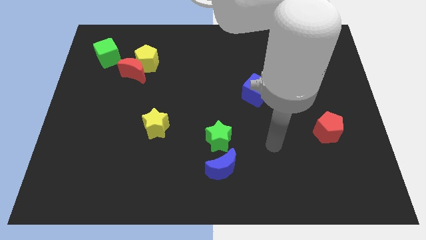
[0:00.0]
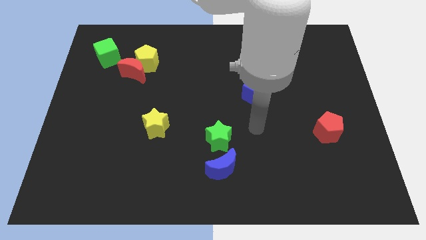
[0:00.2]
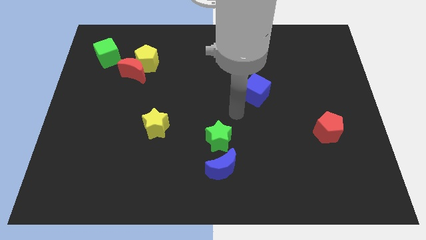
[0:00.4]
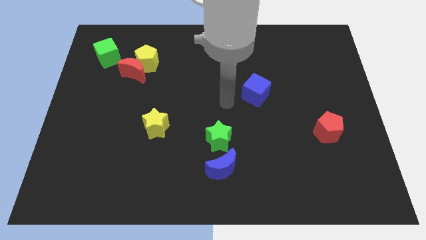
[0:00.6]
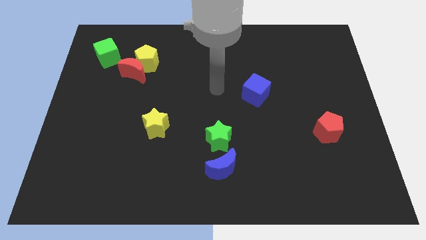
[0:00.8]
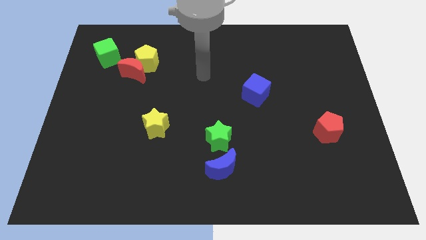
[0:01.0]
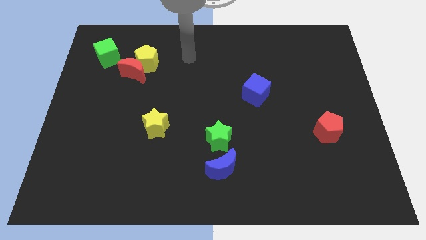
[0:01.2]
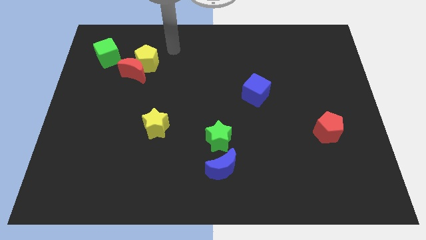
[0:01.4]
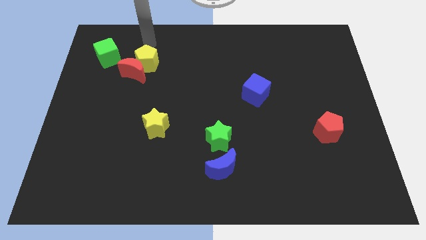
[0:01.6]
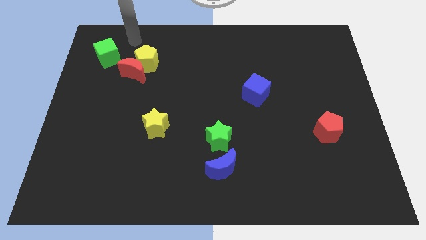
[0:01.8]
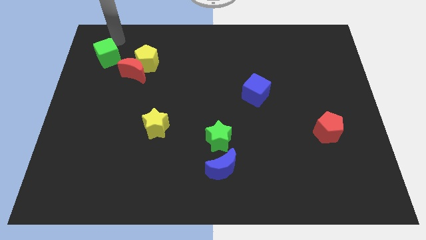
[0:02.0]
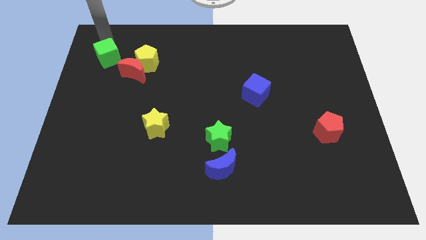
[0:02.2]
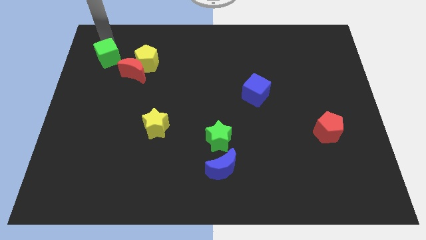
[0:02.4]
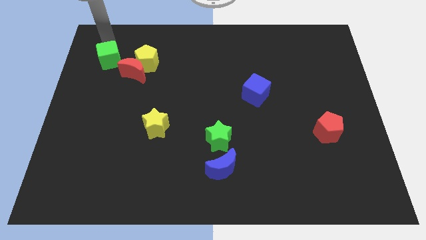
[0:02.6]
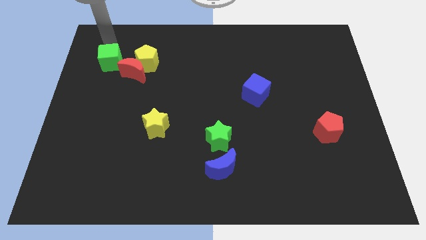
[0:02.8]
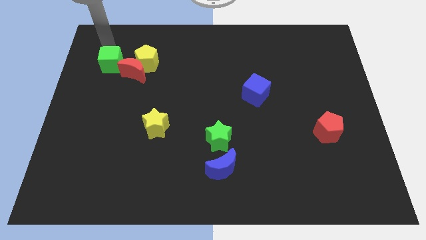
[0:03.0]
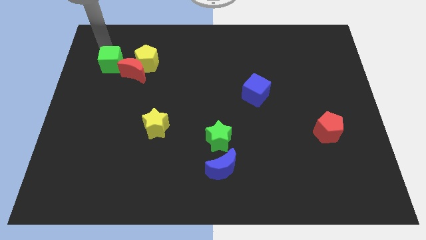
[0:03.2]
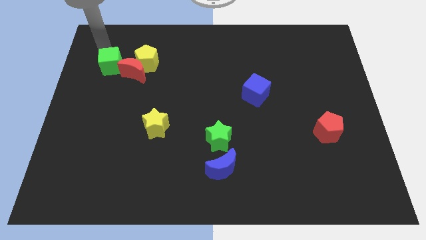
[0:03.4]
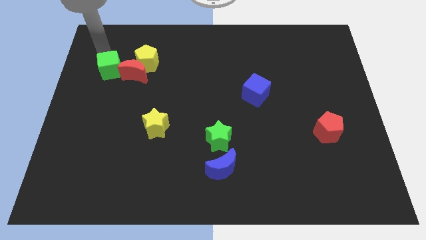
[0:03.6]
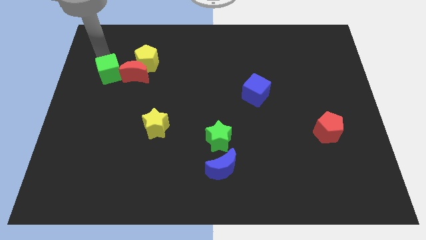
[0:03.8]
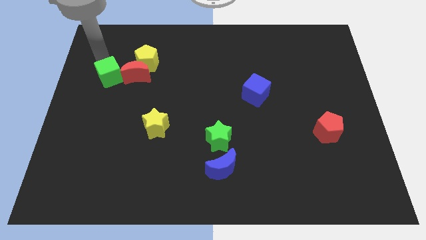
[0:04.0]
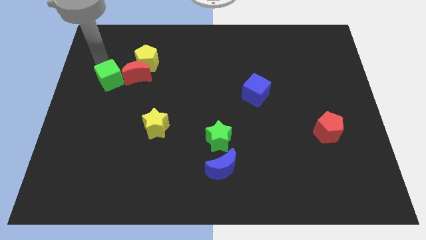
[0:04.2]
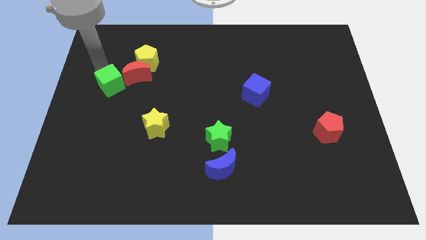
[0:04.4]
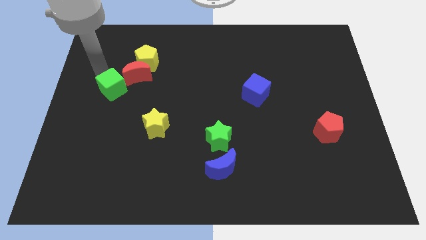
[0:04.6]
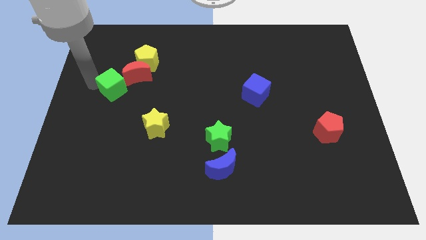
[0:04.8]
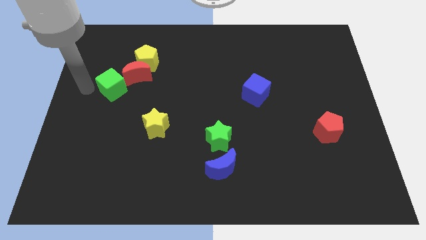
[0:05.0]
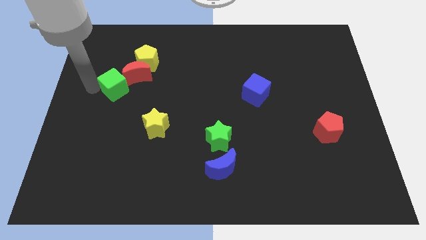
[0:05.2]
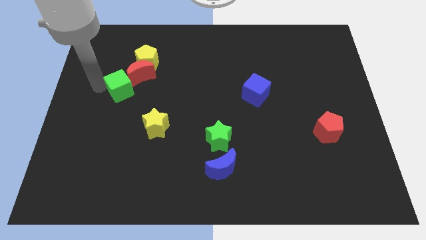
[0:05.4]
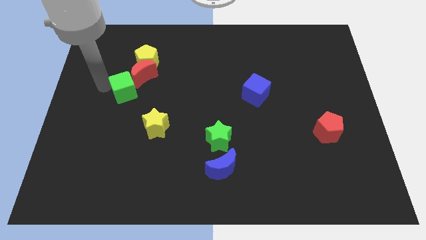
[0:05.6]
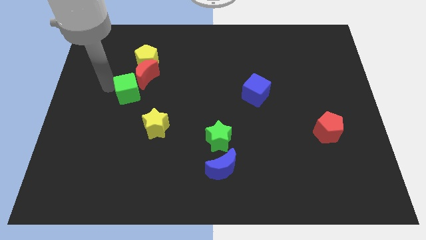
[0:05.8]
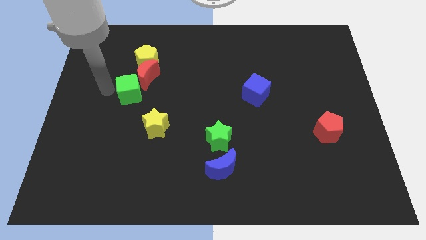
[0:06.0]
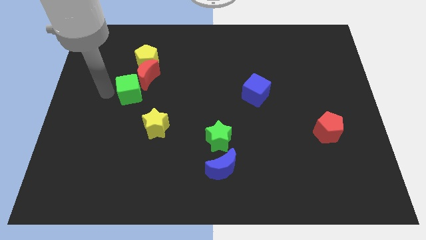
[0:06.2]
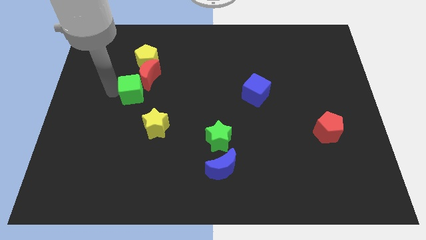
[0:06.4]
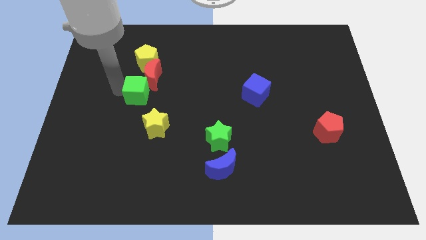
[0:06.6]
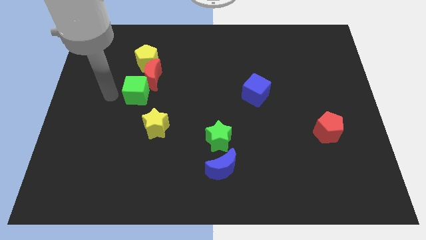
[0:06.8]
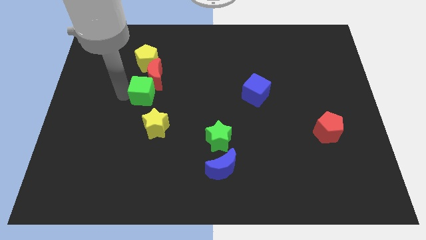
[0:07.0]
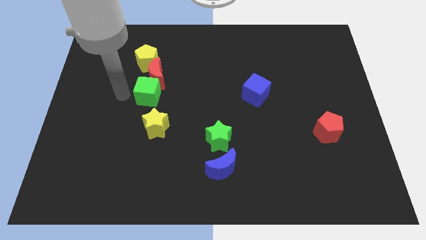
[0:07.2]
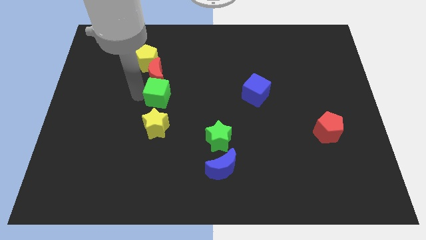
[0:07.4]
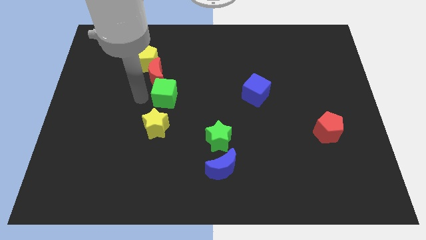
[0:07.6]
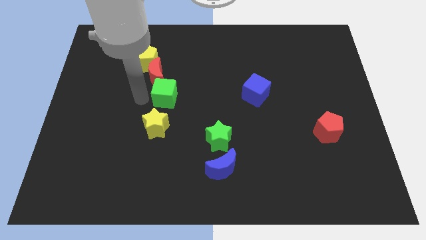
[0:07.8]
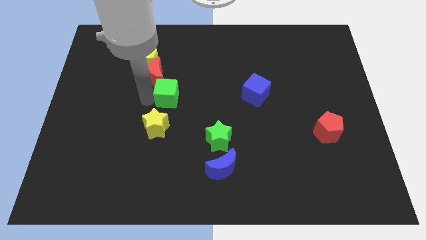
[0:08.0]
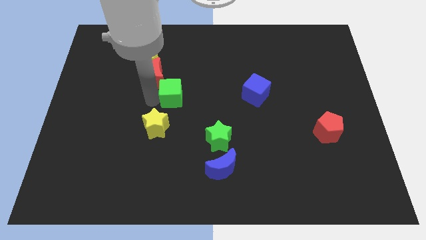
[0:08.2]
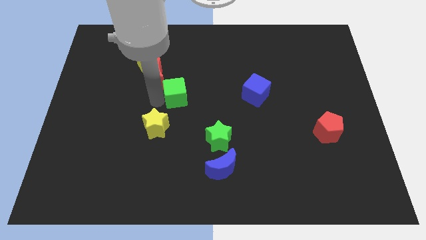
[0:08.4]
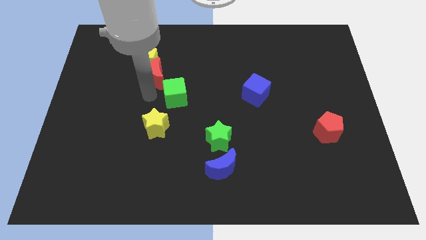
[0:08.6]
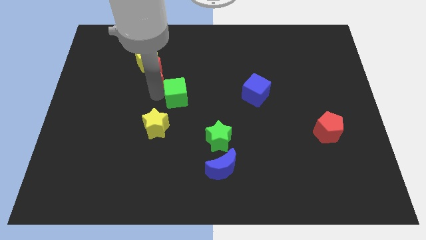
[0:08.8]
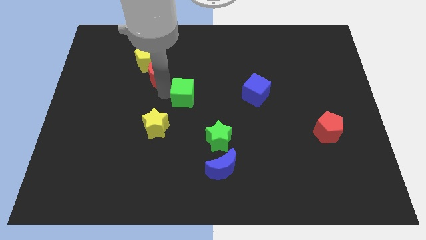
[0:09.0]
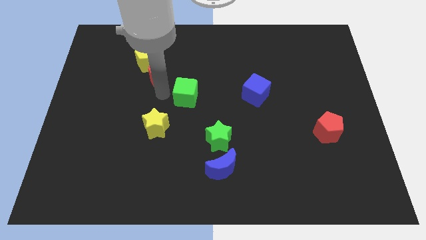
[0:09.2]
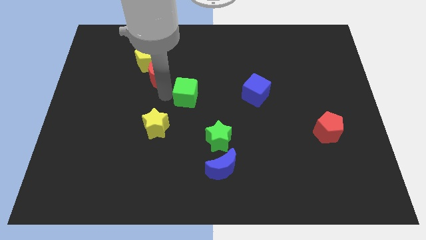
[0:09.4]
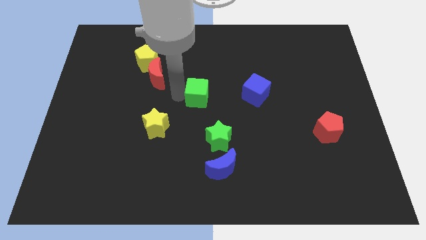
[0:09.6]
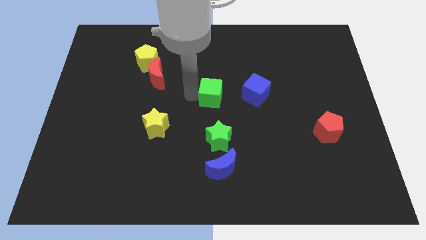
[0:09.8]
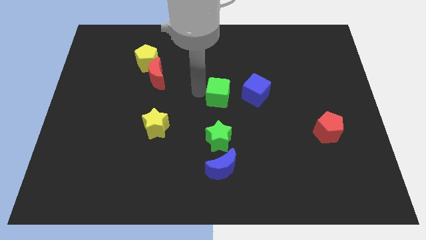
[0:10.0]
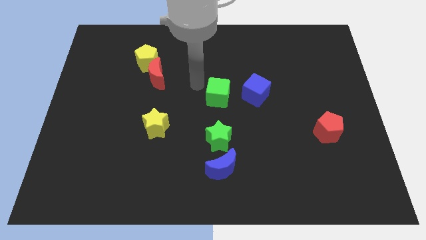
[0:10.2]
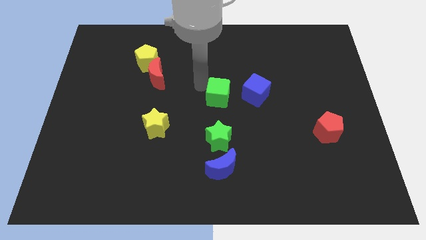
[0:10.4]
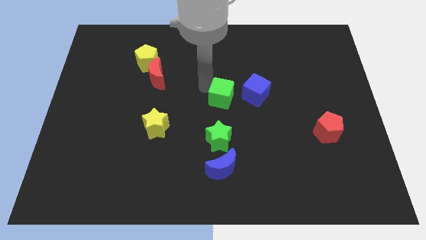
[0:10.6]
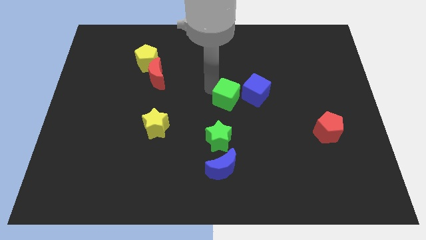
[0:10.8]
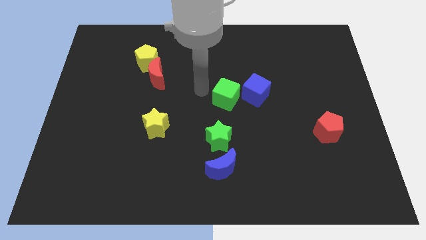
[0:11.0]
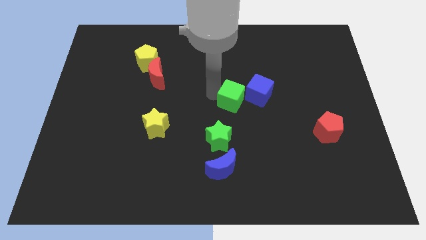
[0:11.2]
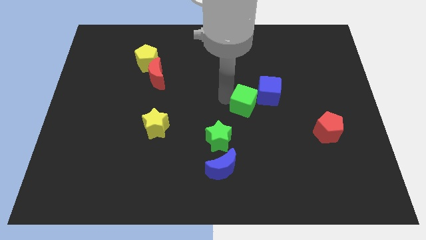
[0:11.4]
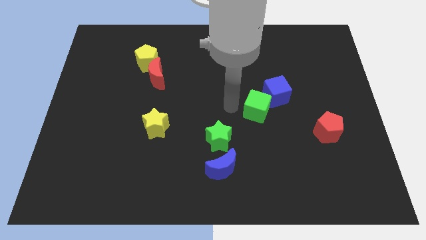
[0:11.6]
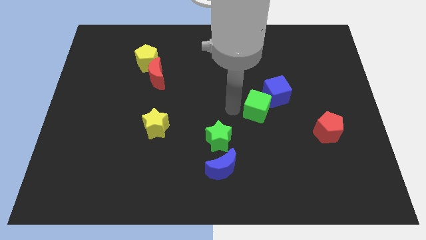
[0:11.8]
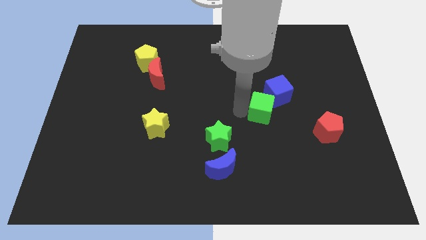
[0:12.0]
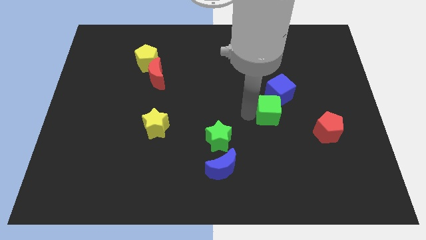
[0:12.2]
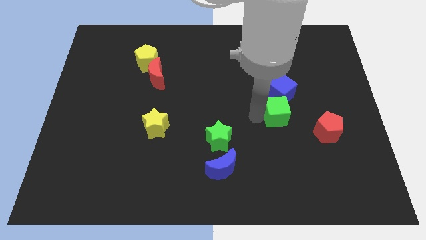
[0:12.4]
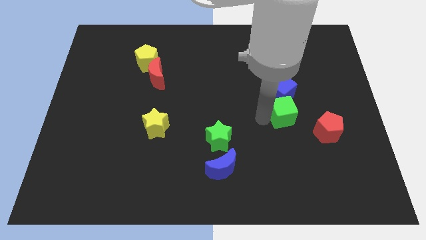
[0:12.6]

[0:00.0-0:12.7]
push the green cube to the bottom right of the blue cube
